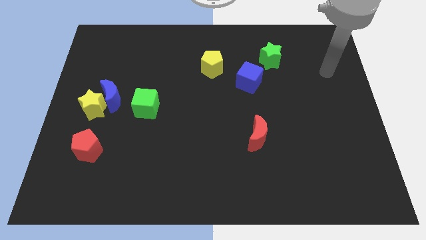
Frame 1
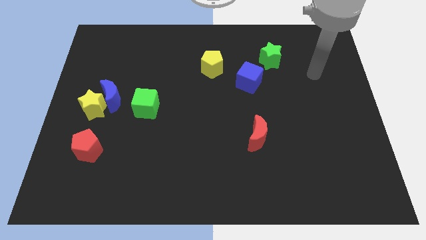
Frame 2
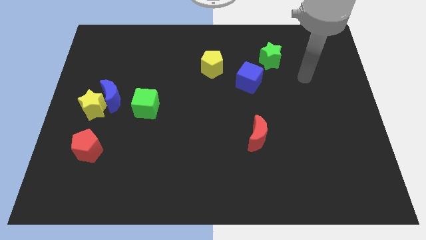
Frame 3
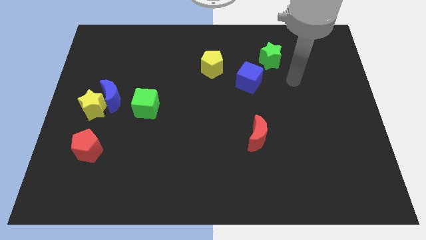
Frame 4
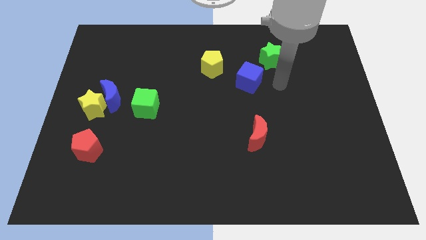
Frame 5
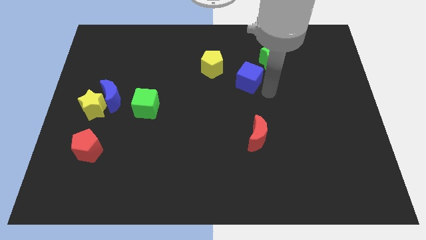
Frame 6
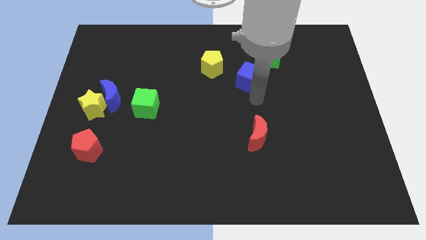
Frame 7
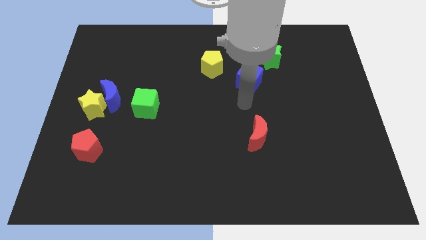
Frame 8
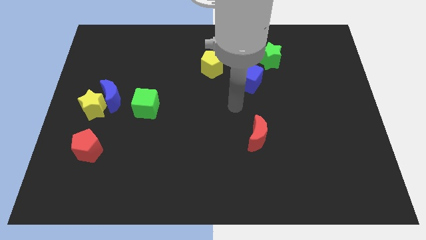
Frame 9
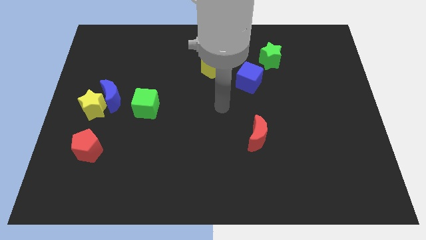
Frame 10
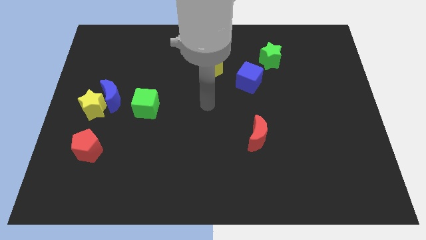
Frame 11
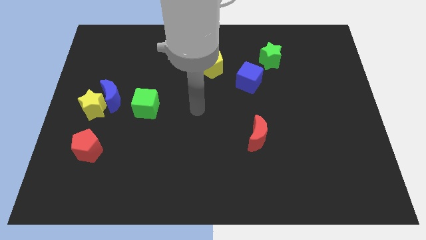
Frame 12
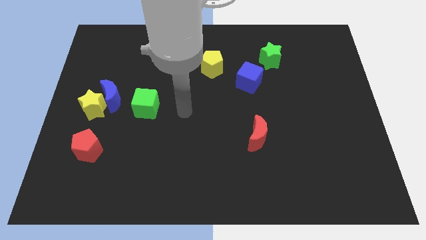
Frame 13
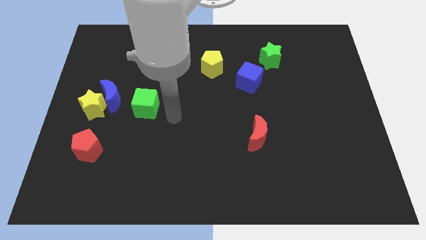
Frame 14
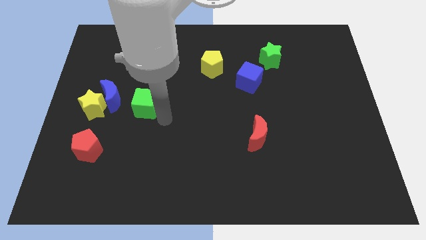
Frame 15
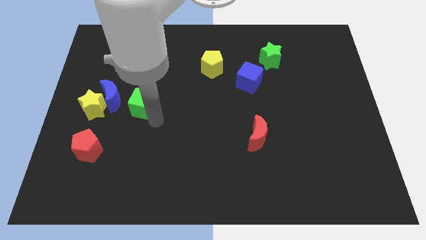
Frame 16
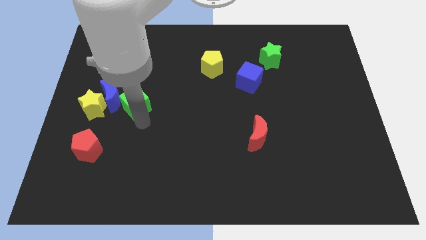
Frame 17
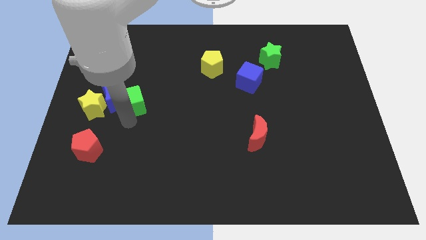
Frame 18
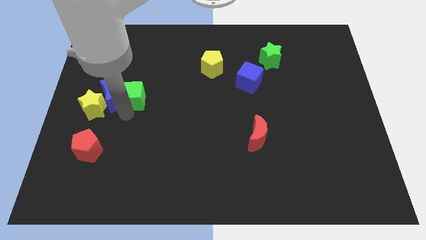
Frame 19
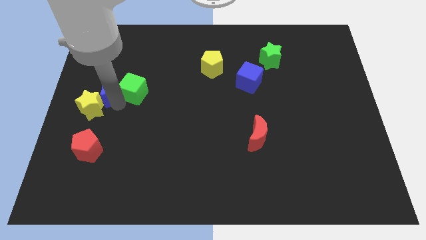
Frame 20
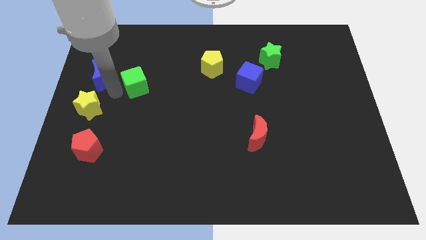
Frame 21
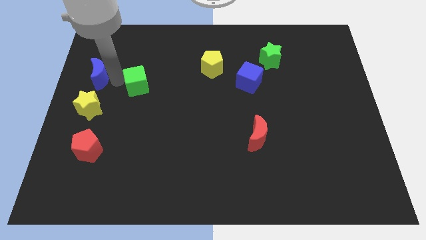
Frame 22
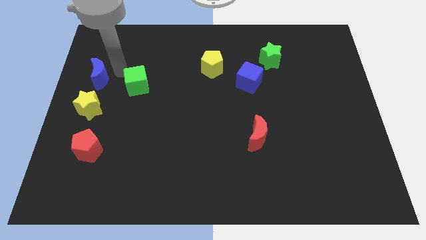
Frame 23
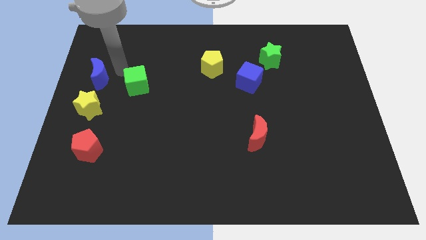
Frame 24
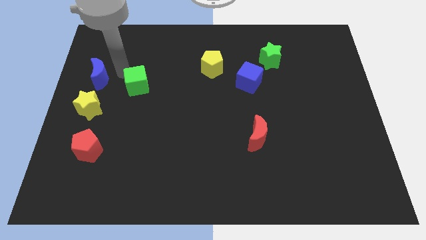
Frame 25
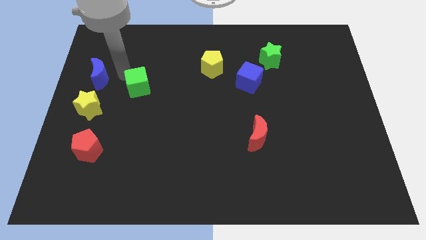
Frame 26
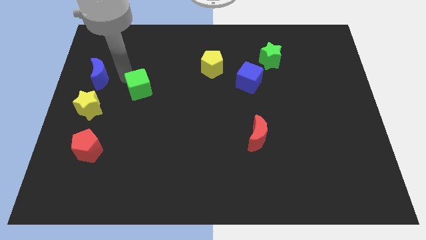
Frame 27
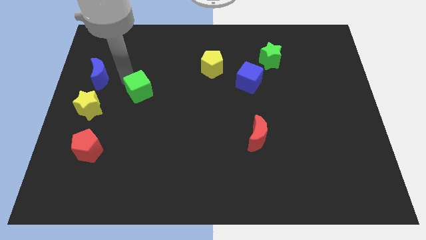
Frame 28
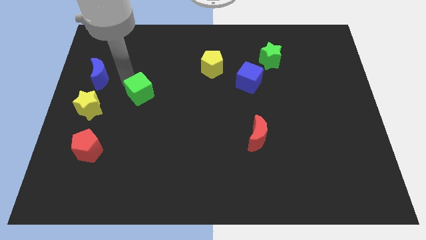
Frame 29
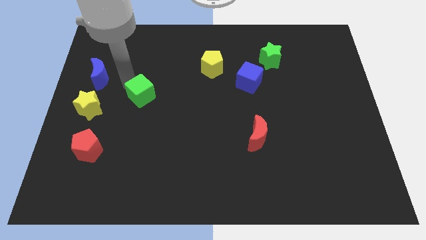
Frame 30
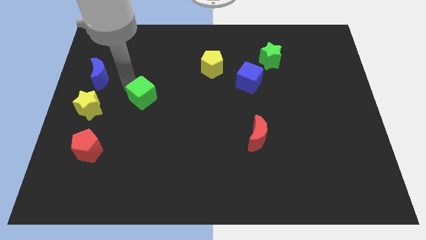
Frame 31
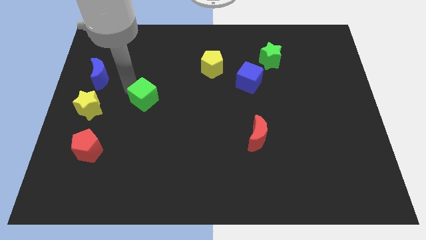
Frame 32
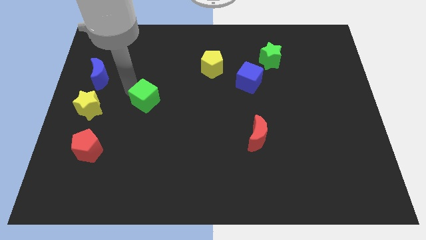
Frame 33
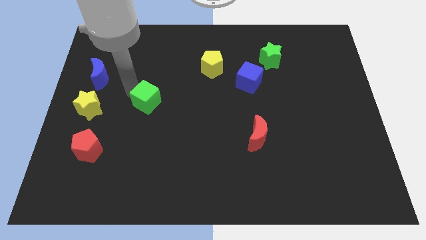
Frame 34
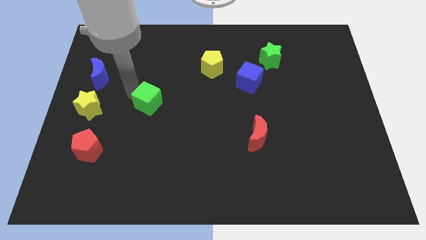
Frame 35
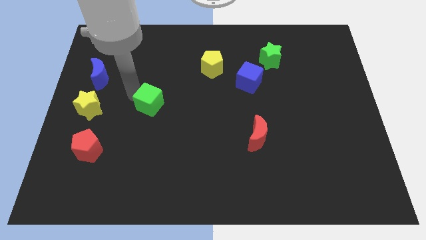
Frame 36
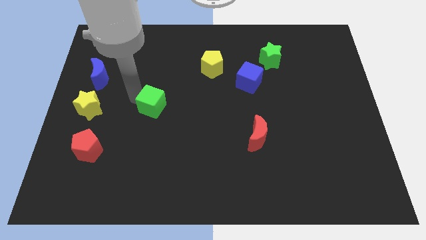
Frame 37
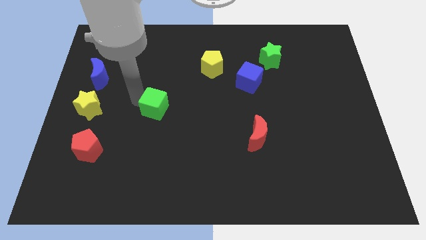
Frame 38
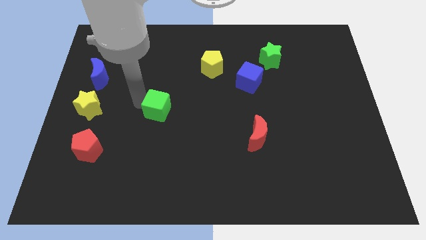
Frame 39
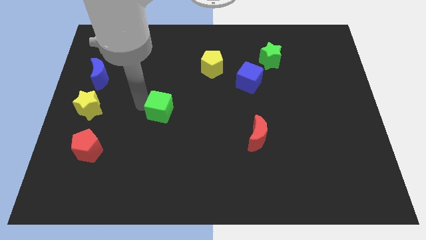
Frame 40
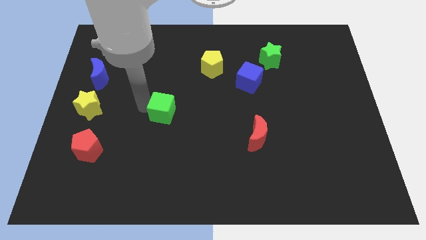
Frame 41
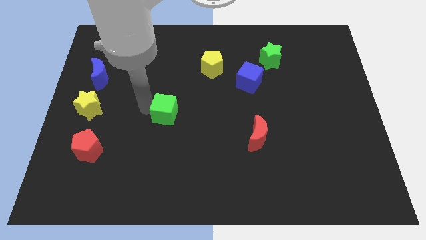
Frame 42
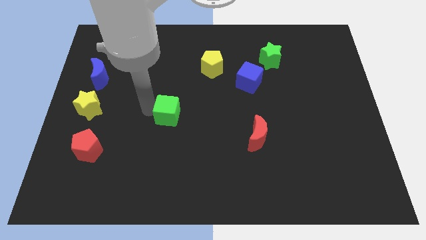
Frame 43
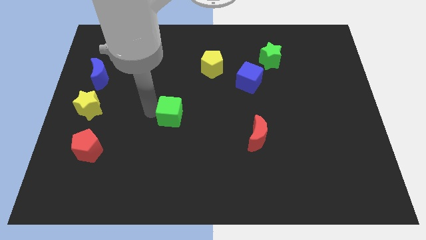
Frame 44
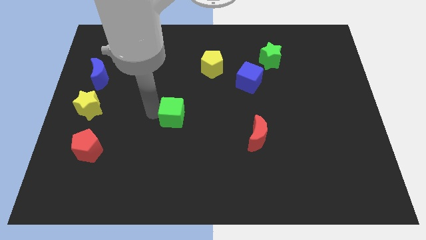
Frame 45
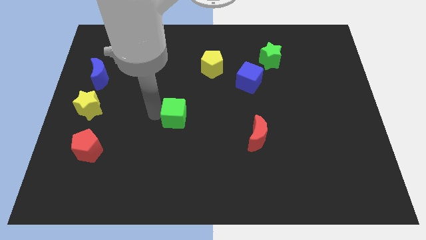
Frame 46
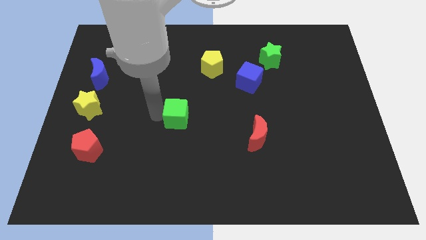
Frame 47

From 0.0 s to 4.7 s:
slide the green cube right a little

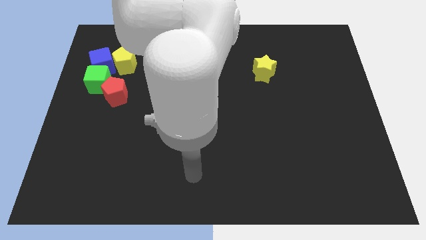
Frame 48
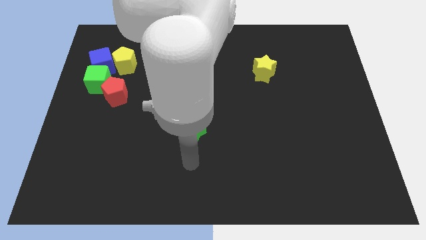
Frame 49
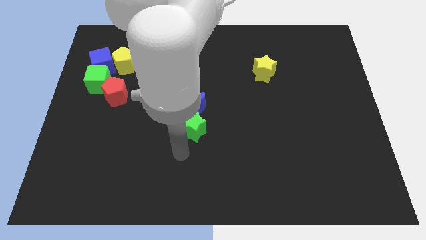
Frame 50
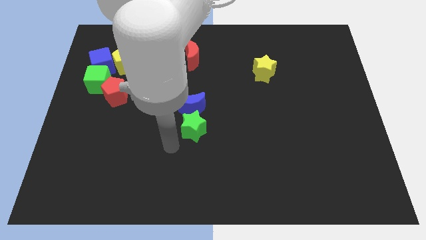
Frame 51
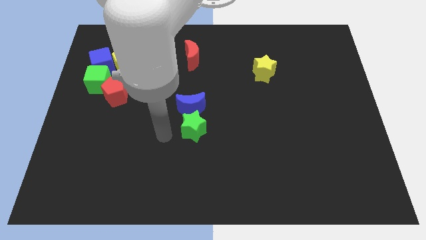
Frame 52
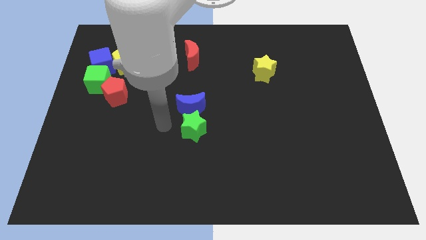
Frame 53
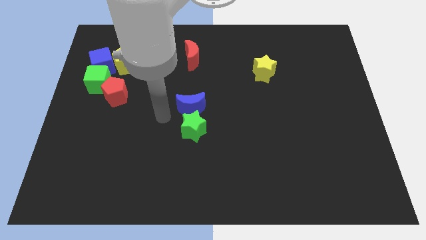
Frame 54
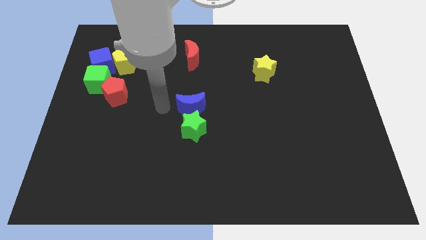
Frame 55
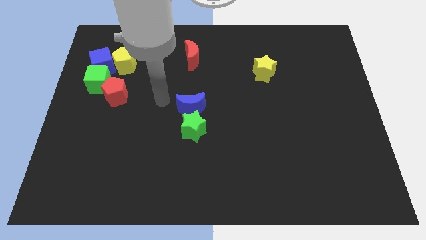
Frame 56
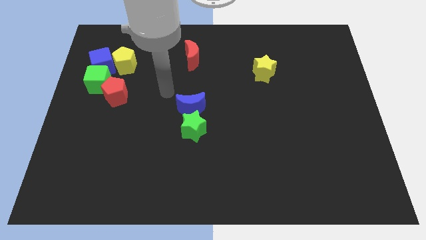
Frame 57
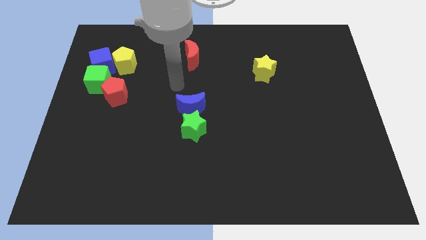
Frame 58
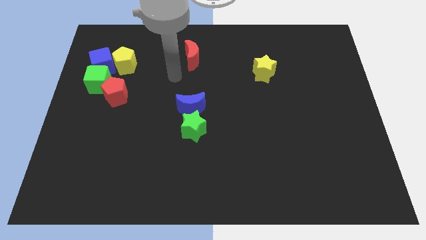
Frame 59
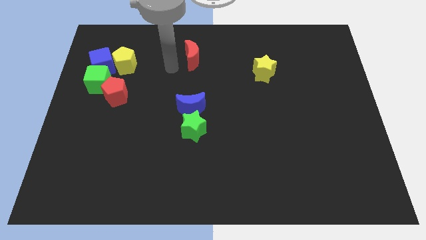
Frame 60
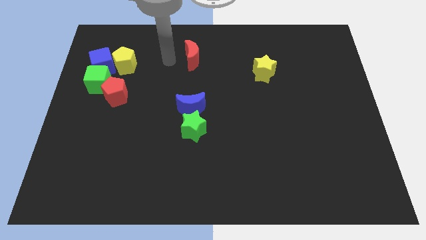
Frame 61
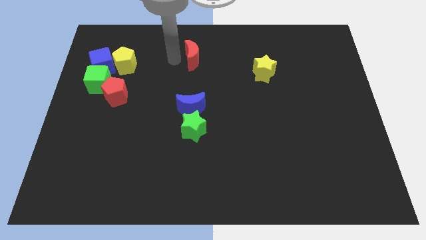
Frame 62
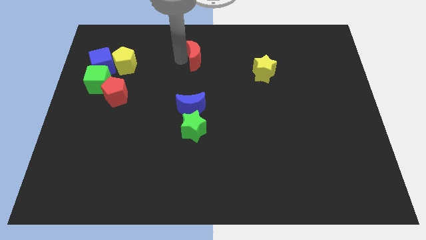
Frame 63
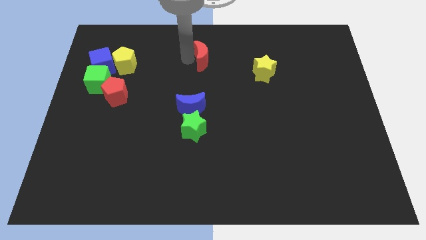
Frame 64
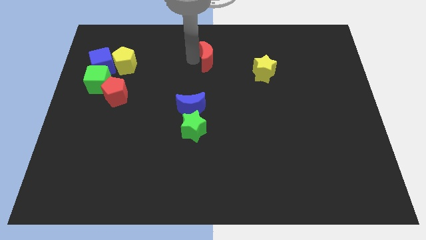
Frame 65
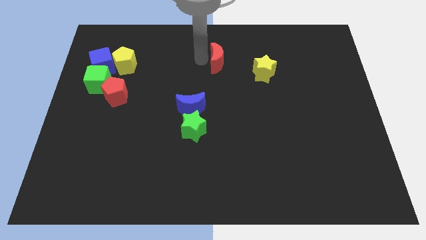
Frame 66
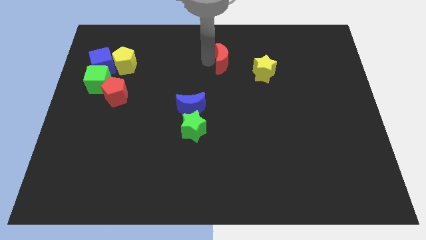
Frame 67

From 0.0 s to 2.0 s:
slightly move the red moon to the right

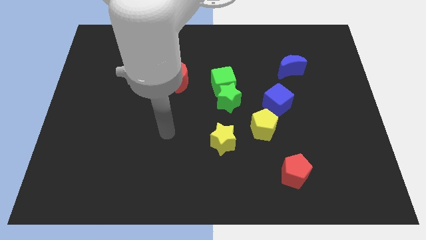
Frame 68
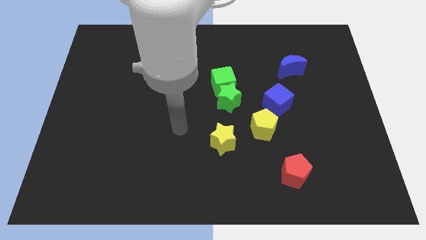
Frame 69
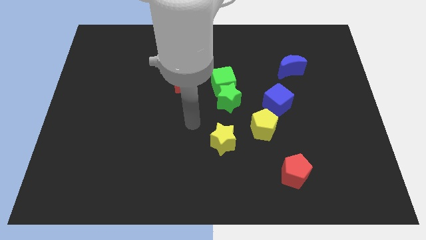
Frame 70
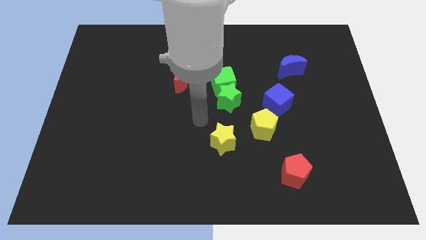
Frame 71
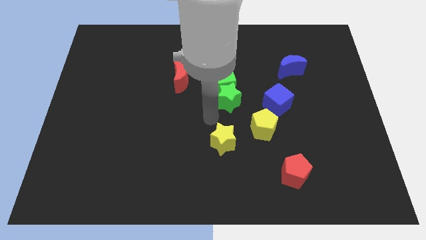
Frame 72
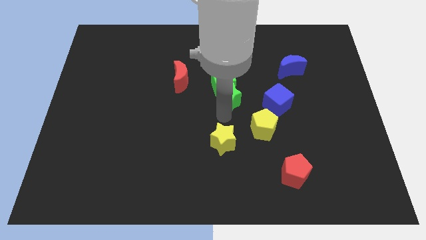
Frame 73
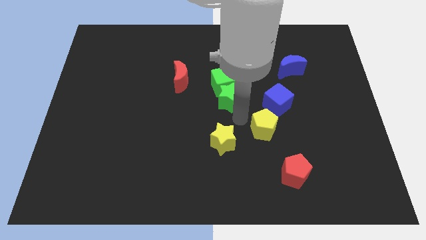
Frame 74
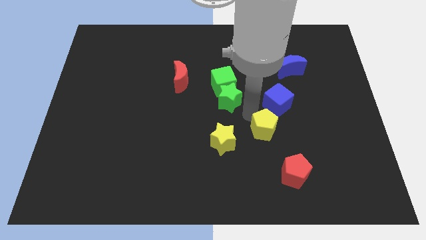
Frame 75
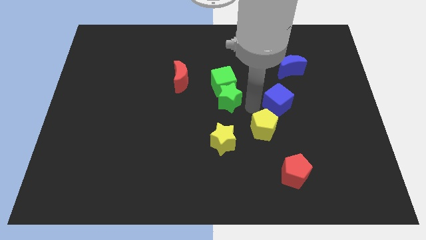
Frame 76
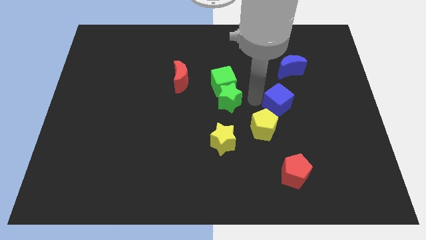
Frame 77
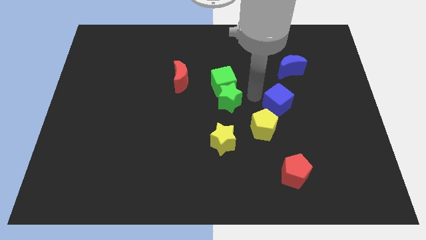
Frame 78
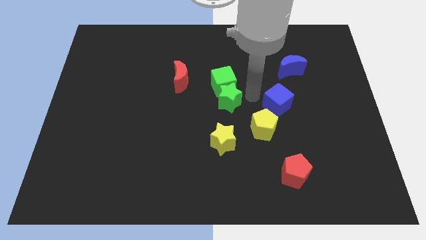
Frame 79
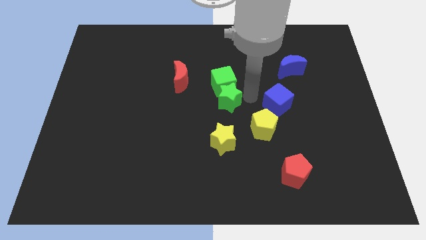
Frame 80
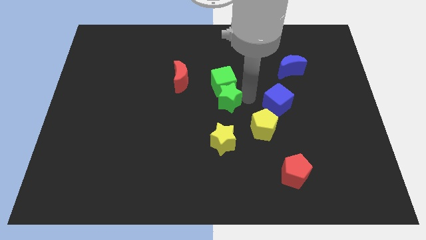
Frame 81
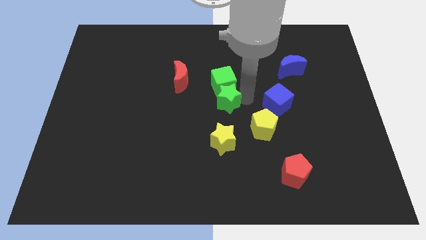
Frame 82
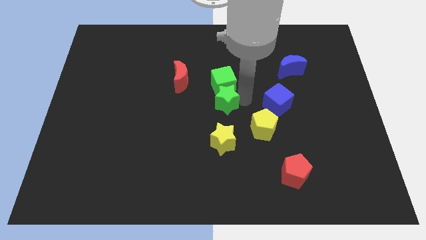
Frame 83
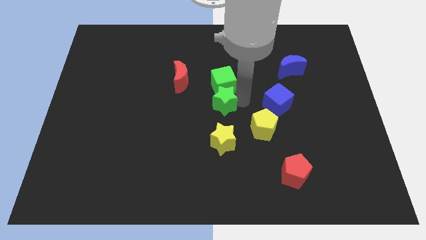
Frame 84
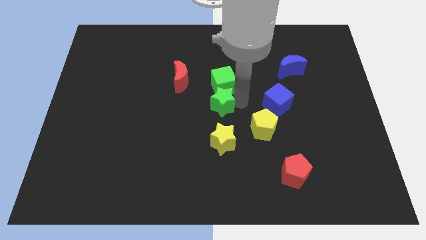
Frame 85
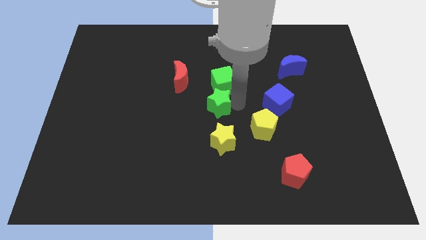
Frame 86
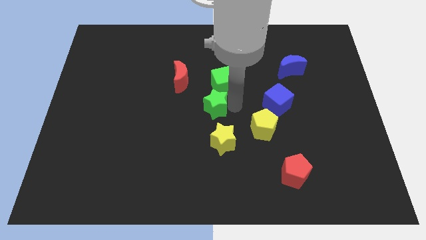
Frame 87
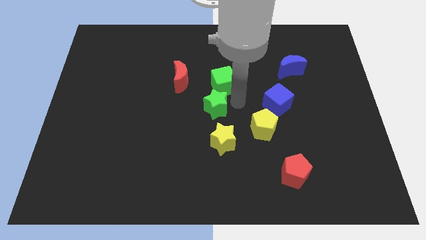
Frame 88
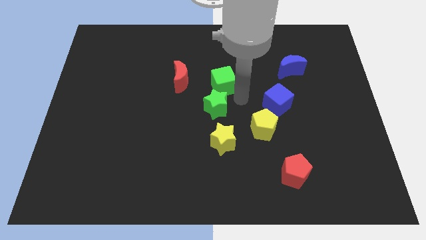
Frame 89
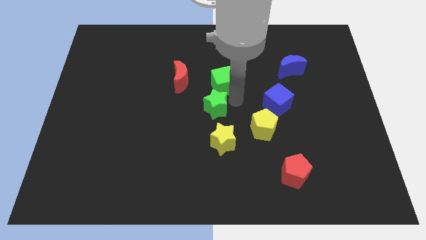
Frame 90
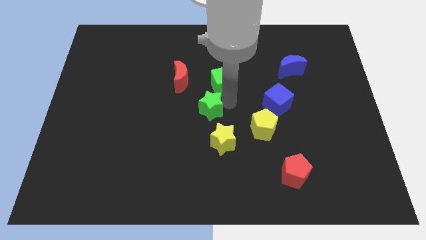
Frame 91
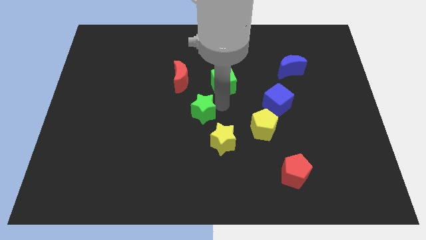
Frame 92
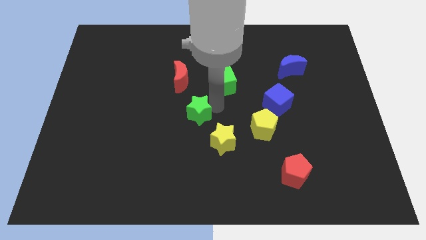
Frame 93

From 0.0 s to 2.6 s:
slide the green star diagonally downwards and left somewhat
